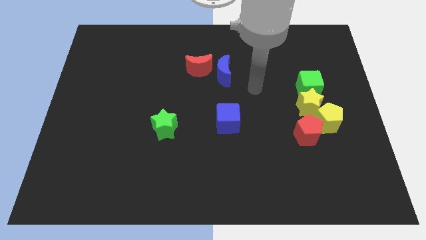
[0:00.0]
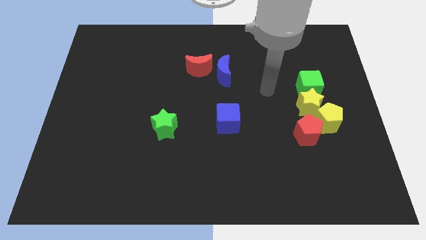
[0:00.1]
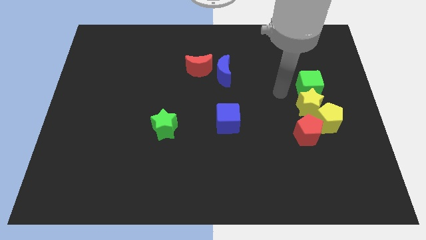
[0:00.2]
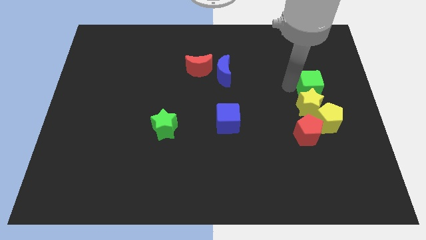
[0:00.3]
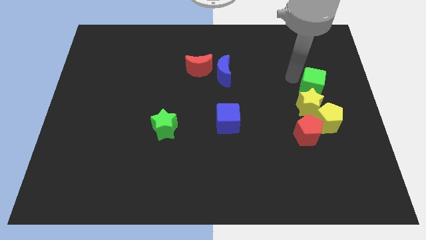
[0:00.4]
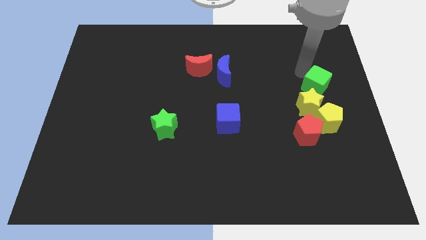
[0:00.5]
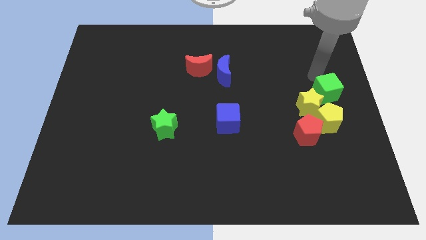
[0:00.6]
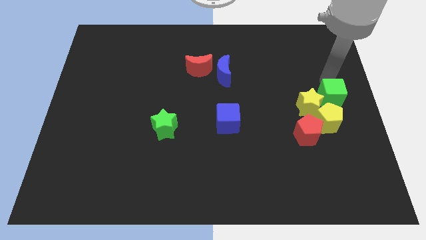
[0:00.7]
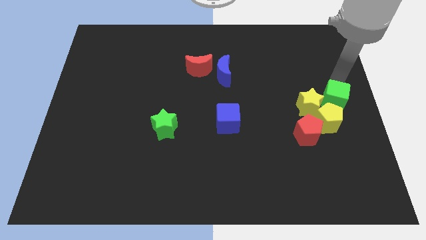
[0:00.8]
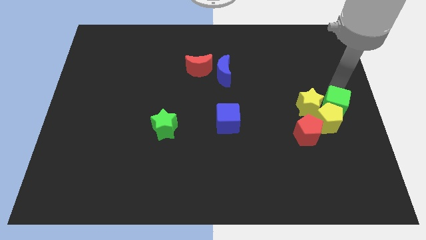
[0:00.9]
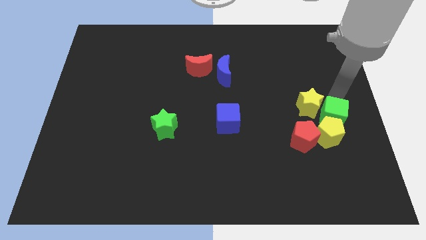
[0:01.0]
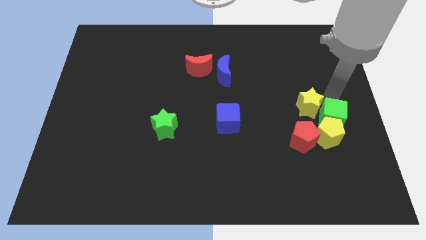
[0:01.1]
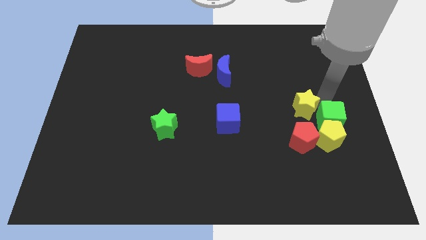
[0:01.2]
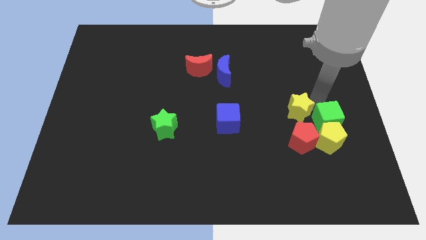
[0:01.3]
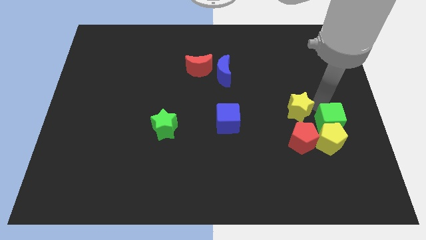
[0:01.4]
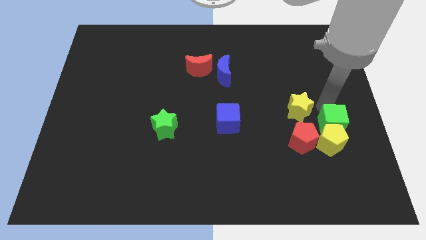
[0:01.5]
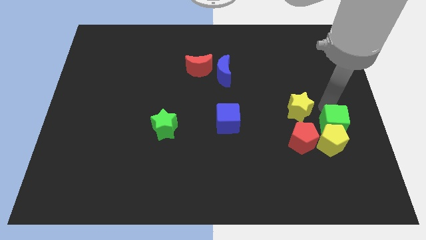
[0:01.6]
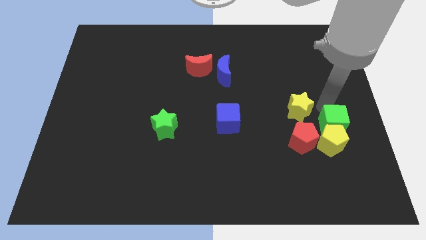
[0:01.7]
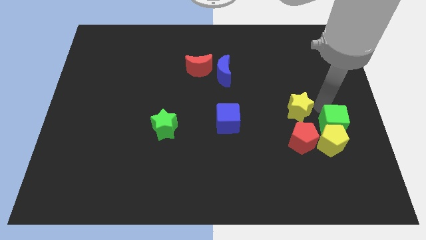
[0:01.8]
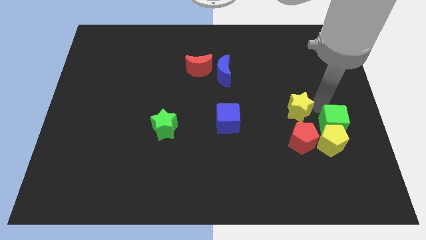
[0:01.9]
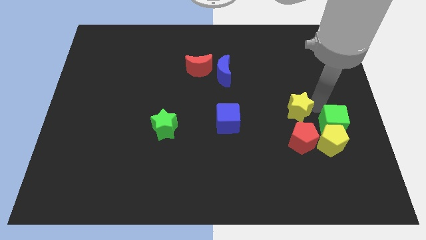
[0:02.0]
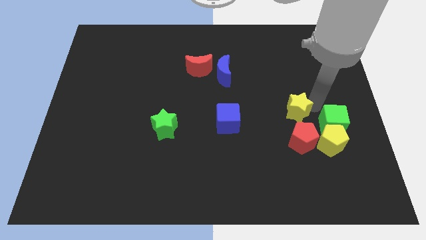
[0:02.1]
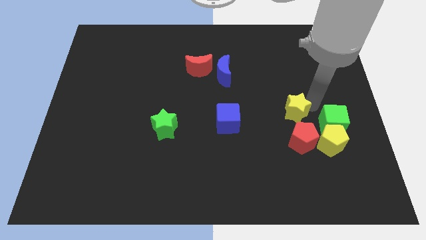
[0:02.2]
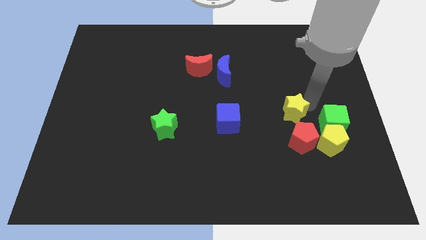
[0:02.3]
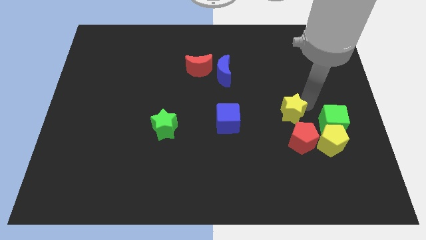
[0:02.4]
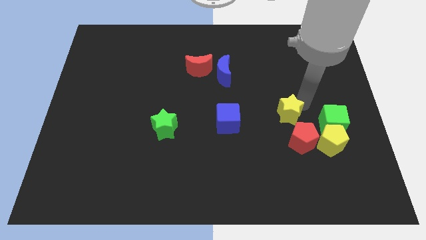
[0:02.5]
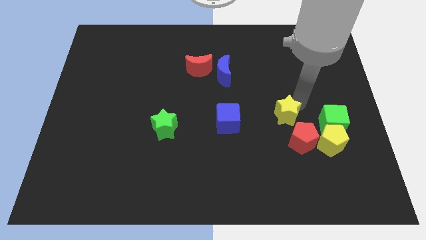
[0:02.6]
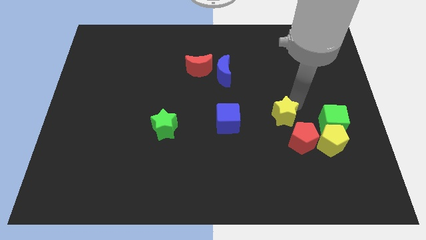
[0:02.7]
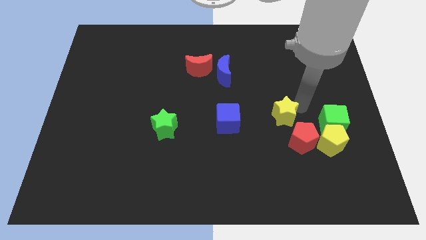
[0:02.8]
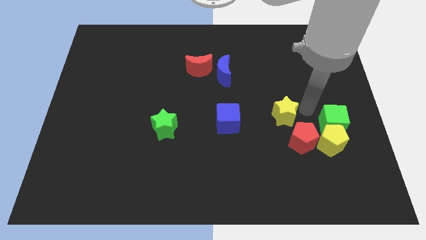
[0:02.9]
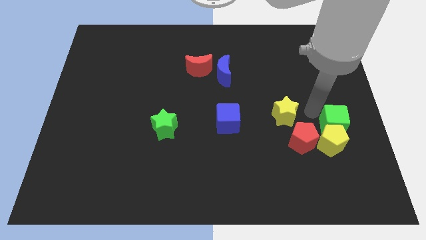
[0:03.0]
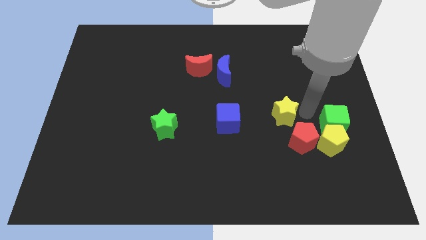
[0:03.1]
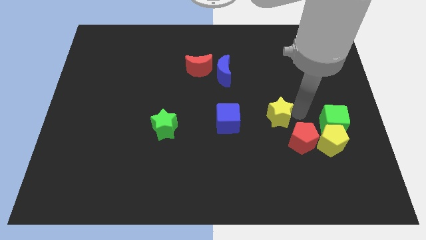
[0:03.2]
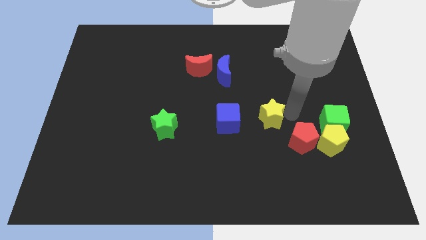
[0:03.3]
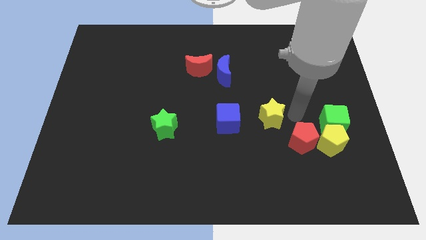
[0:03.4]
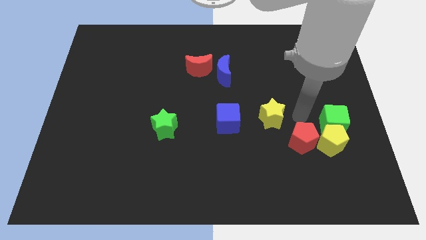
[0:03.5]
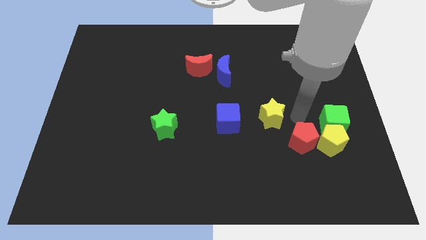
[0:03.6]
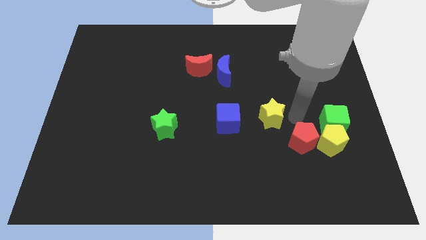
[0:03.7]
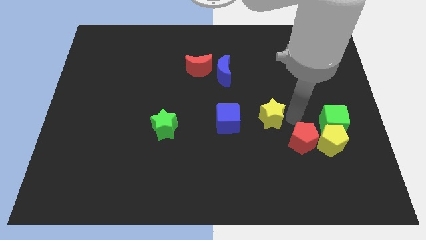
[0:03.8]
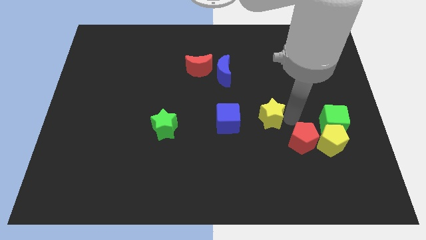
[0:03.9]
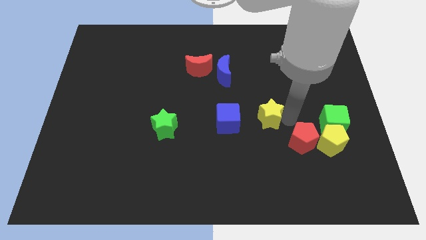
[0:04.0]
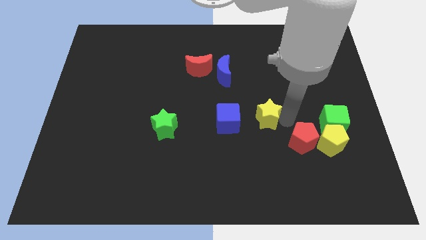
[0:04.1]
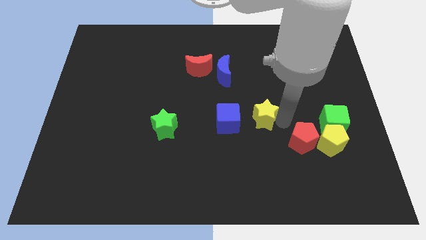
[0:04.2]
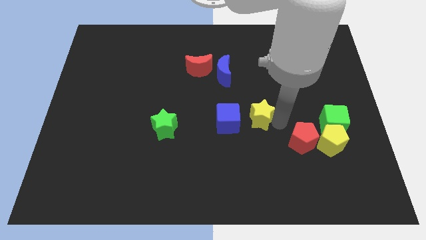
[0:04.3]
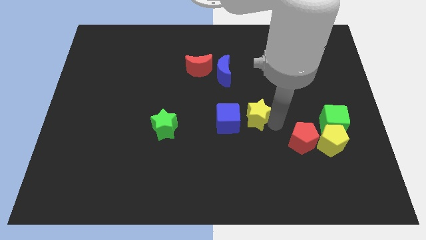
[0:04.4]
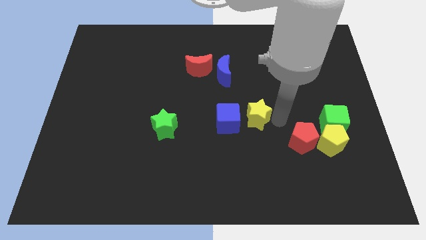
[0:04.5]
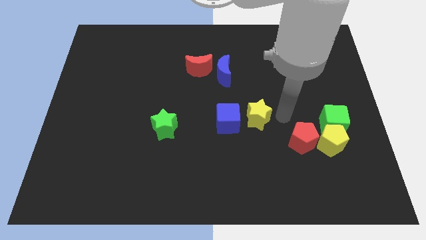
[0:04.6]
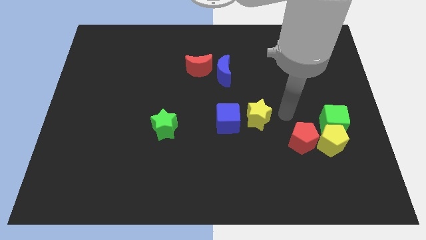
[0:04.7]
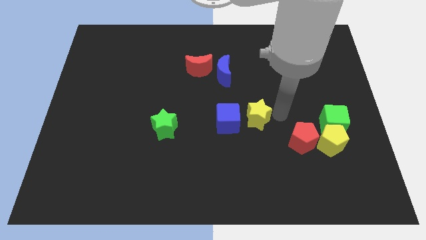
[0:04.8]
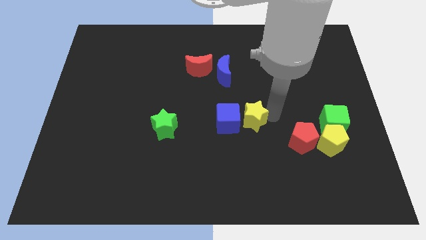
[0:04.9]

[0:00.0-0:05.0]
push the yellow star towards the blue cube

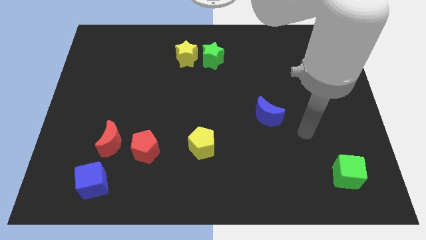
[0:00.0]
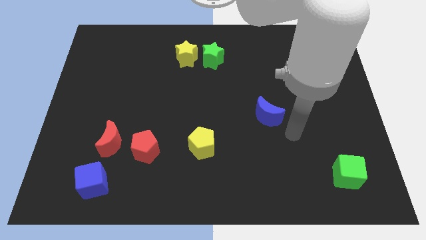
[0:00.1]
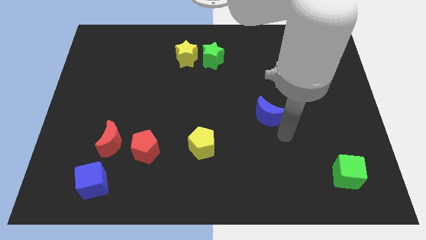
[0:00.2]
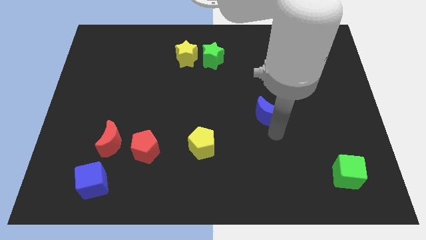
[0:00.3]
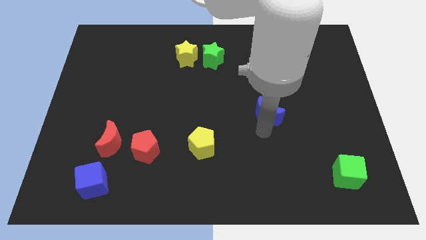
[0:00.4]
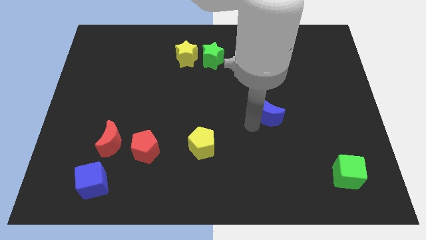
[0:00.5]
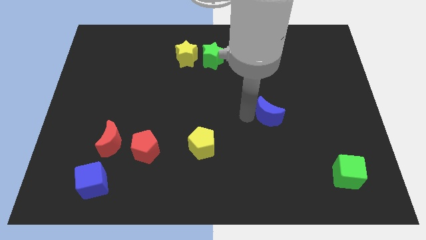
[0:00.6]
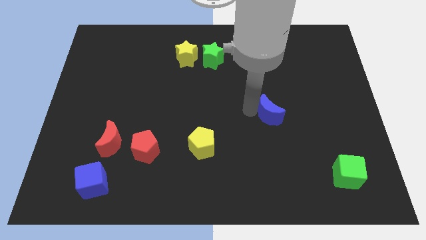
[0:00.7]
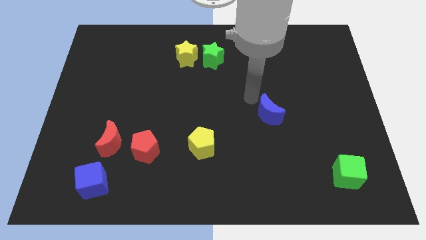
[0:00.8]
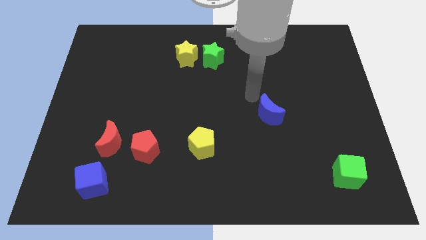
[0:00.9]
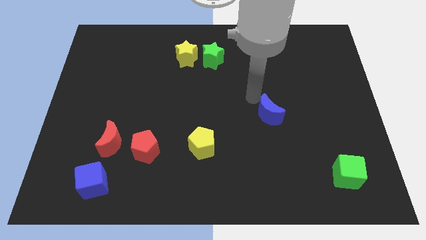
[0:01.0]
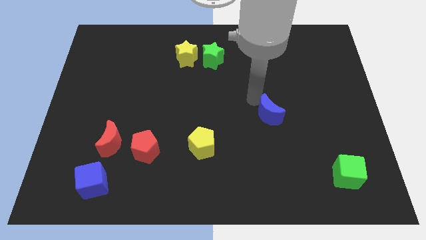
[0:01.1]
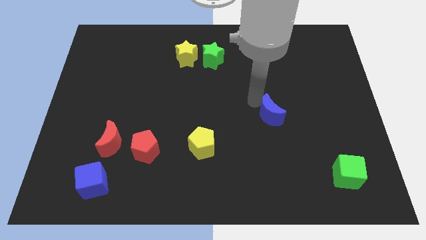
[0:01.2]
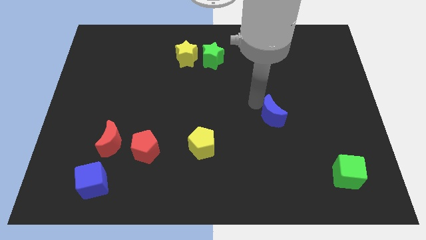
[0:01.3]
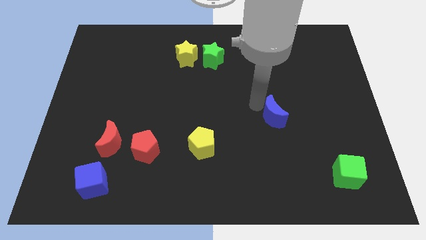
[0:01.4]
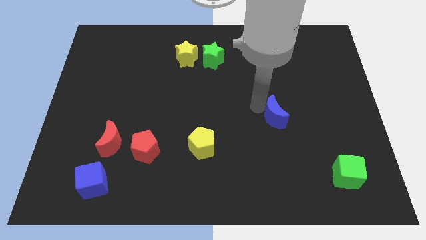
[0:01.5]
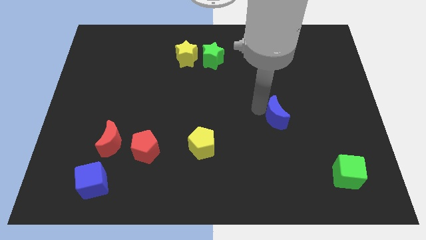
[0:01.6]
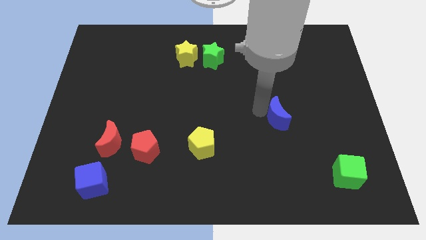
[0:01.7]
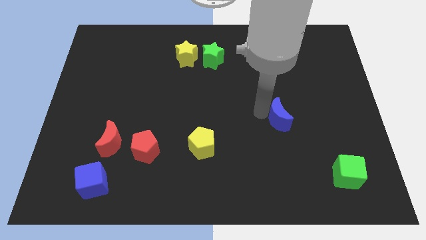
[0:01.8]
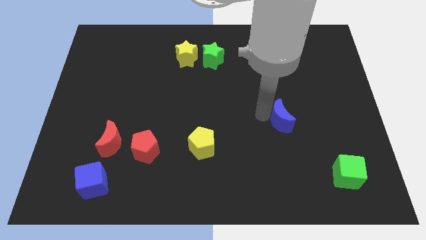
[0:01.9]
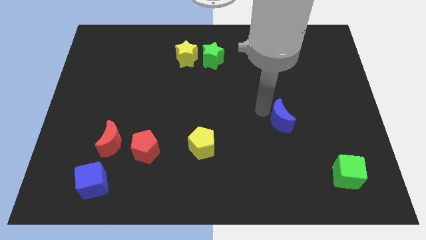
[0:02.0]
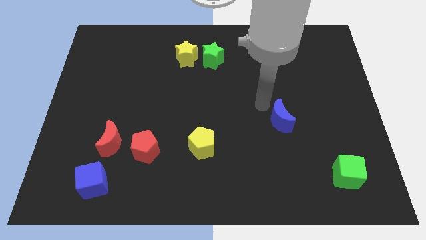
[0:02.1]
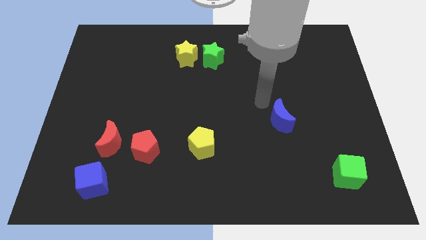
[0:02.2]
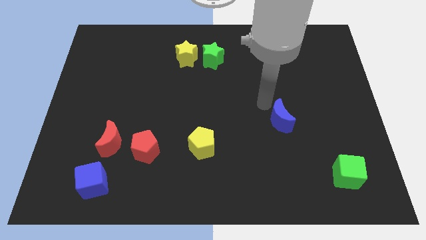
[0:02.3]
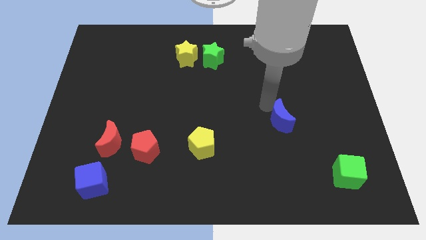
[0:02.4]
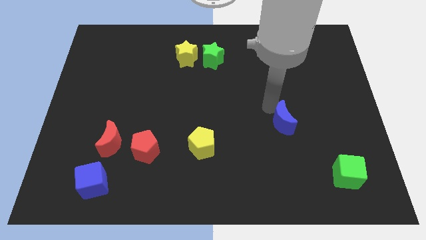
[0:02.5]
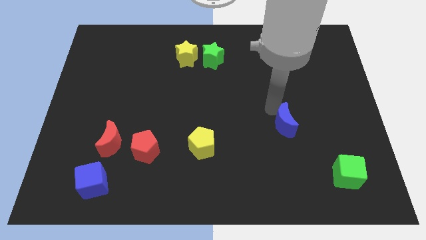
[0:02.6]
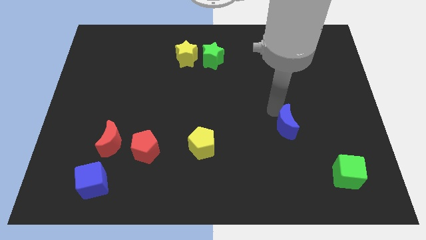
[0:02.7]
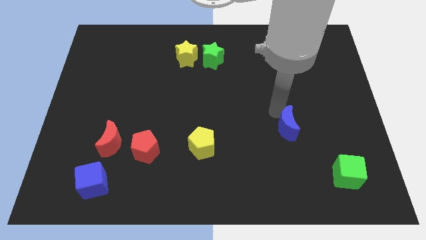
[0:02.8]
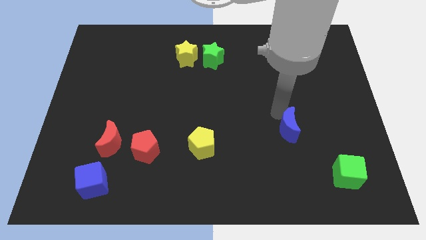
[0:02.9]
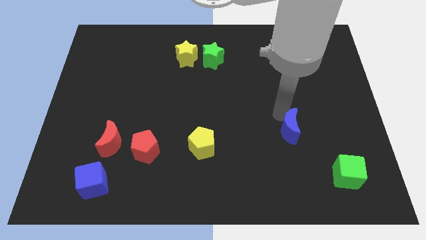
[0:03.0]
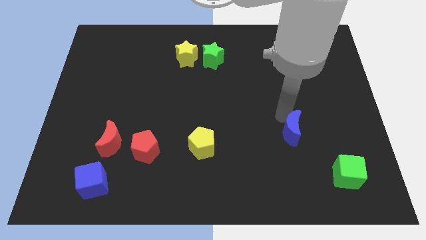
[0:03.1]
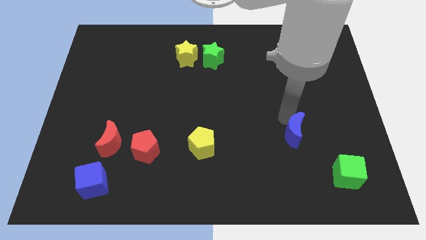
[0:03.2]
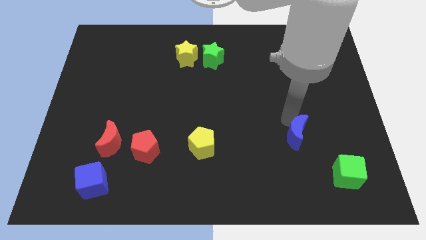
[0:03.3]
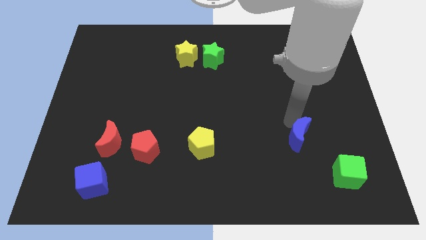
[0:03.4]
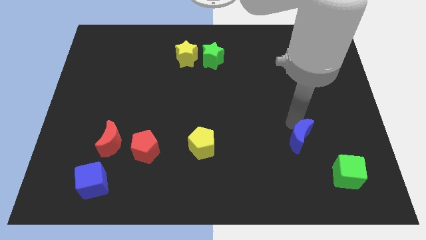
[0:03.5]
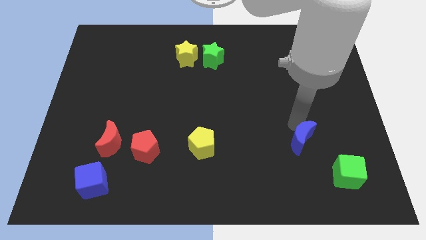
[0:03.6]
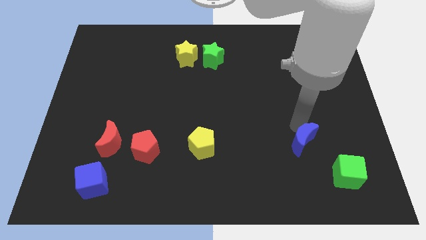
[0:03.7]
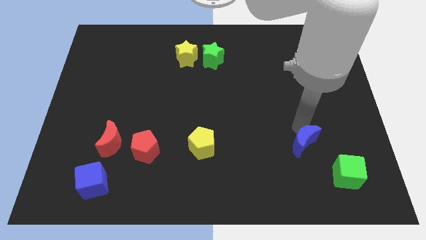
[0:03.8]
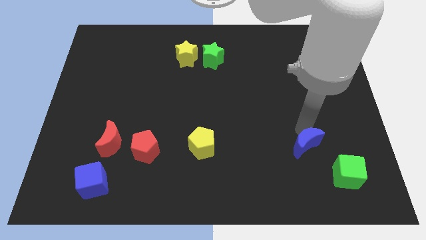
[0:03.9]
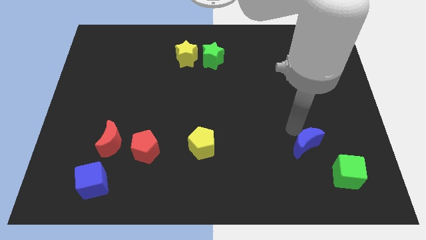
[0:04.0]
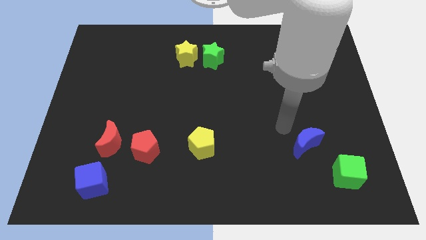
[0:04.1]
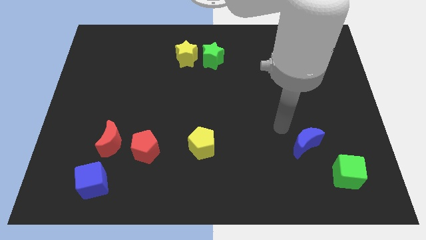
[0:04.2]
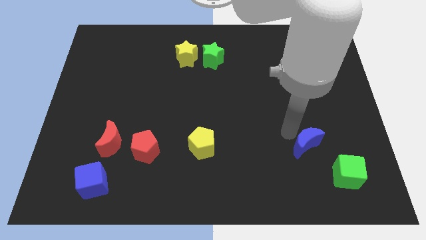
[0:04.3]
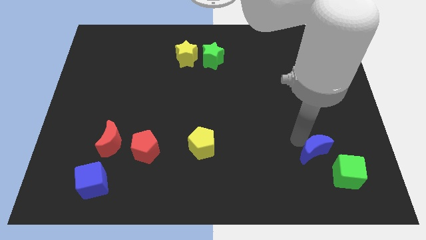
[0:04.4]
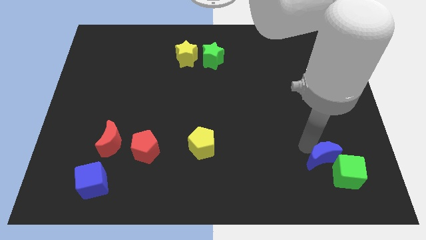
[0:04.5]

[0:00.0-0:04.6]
slide the blue moon next to the green cube
